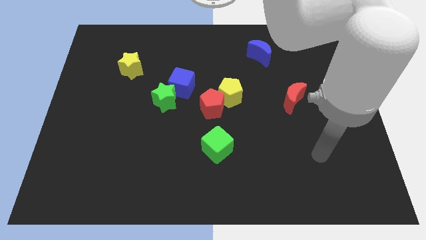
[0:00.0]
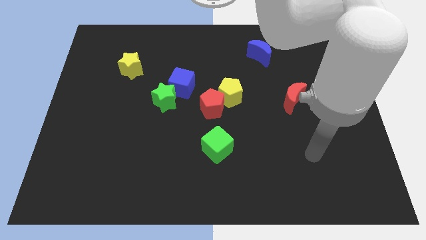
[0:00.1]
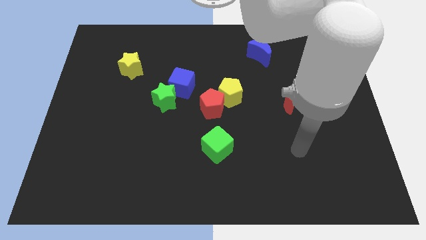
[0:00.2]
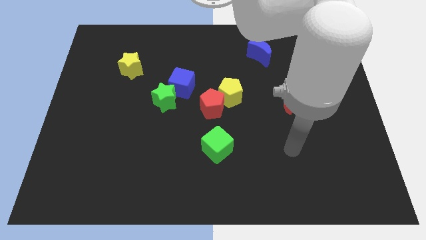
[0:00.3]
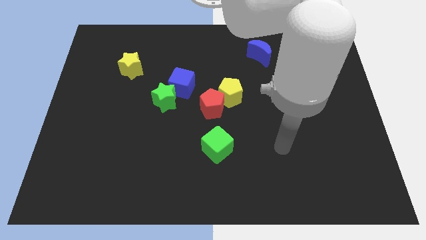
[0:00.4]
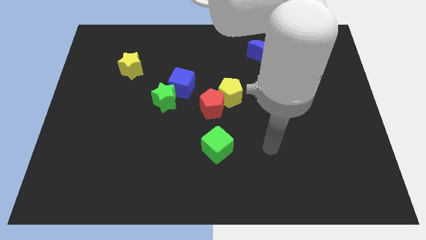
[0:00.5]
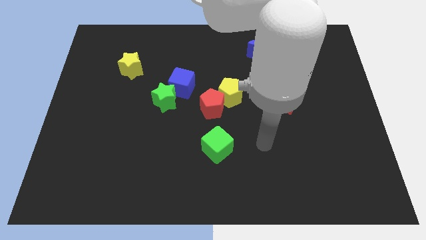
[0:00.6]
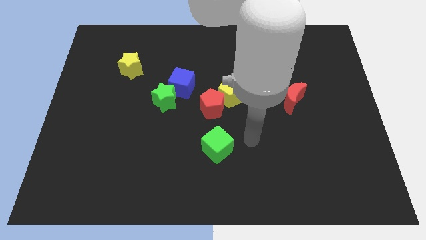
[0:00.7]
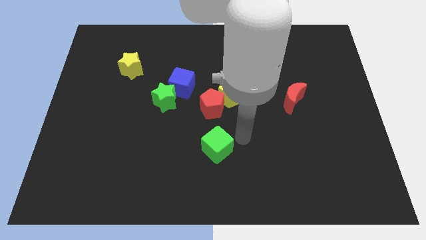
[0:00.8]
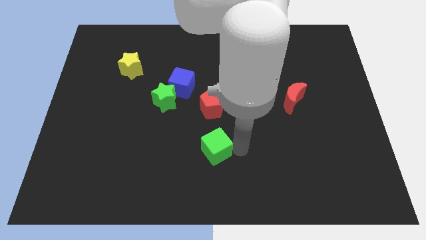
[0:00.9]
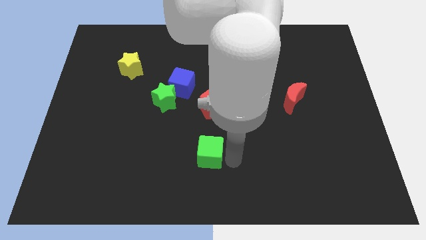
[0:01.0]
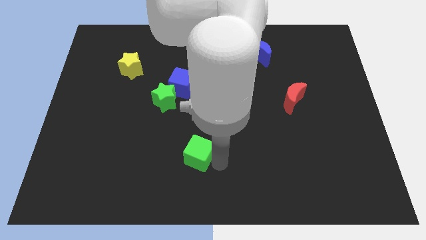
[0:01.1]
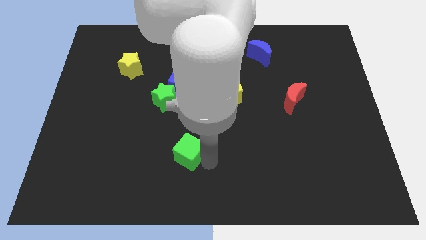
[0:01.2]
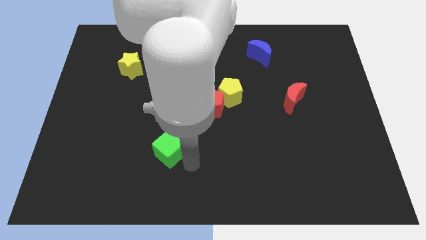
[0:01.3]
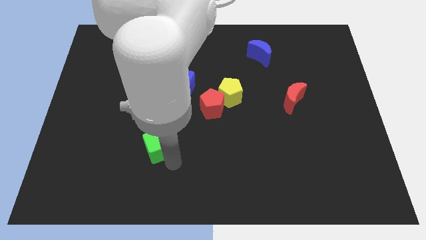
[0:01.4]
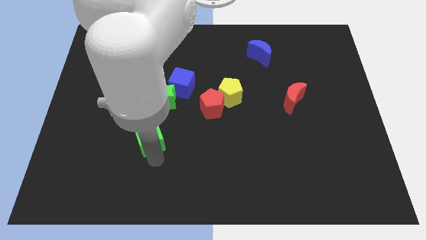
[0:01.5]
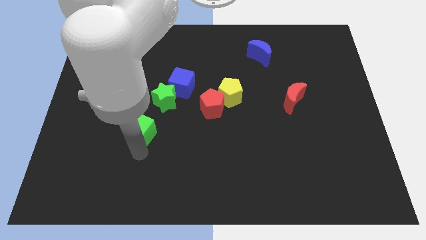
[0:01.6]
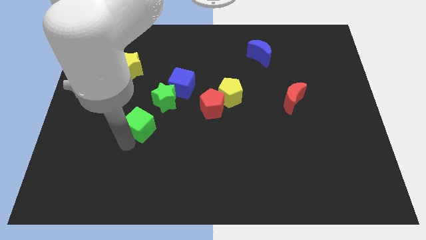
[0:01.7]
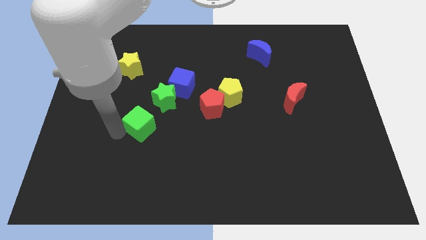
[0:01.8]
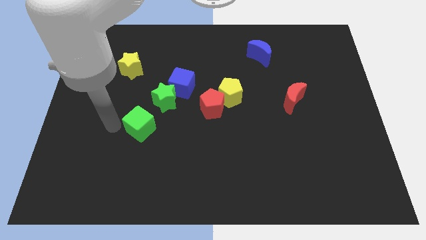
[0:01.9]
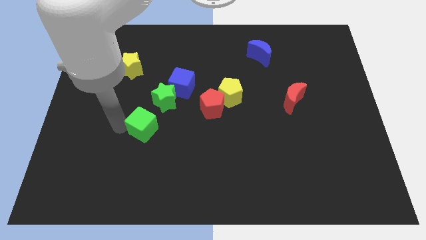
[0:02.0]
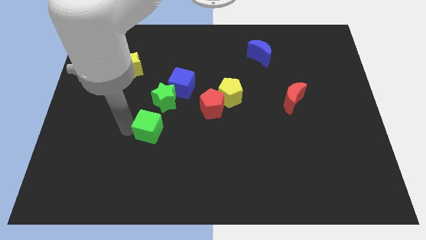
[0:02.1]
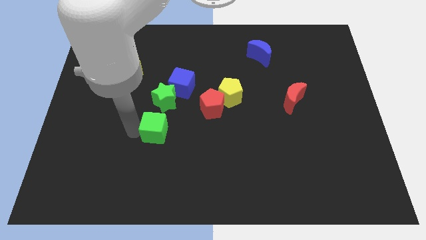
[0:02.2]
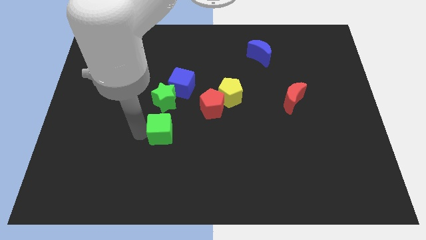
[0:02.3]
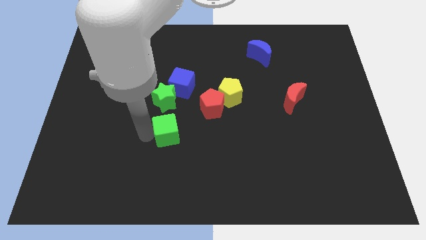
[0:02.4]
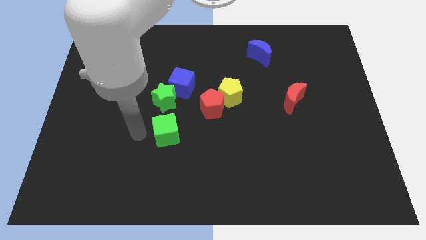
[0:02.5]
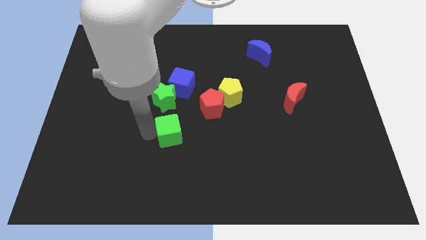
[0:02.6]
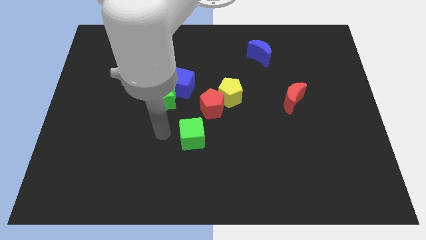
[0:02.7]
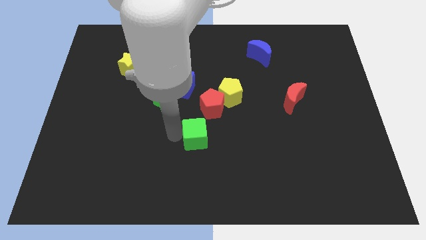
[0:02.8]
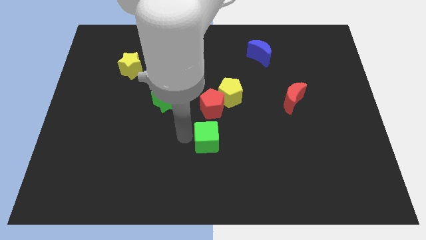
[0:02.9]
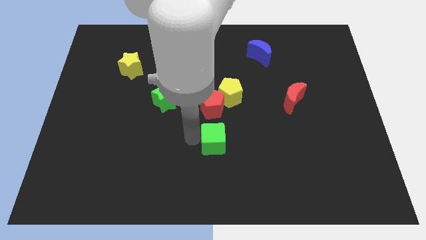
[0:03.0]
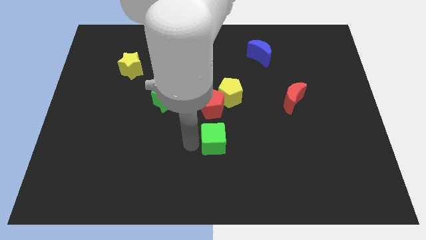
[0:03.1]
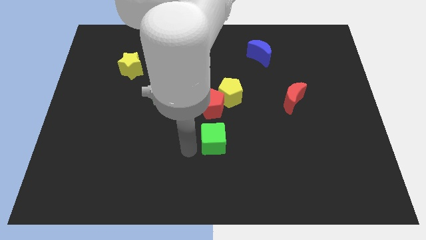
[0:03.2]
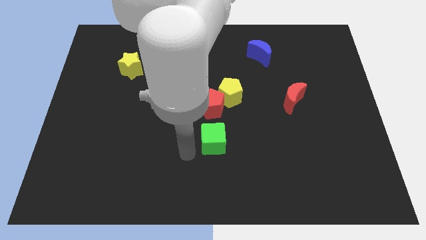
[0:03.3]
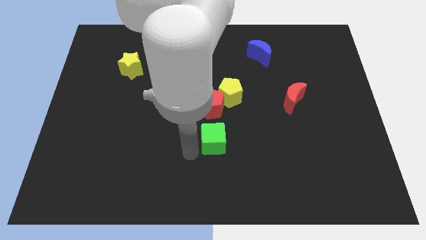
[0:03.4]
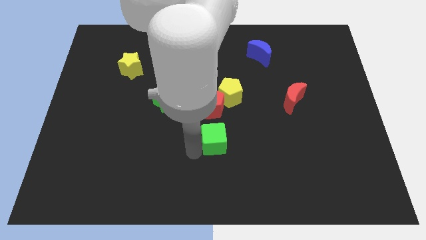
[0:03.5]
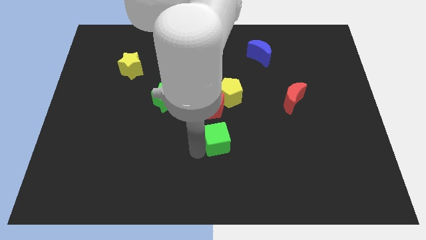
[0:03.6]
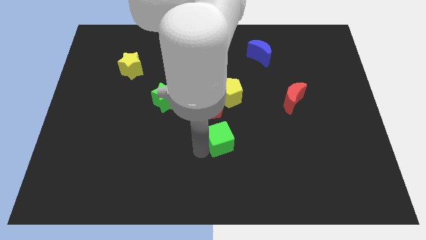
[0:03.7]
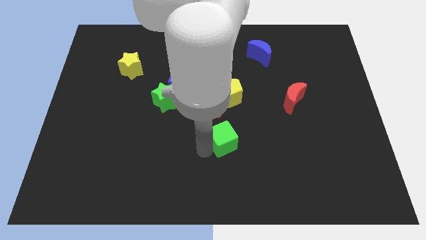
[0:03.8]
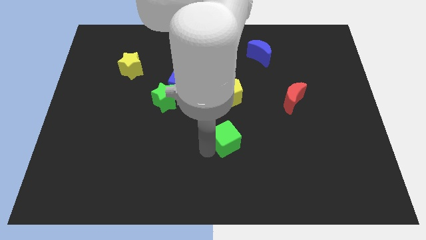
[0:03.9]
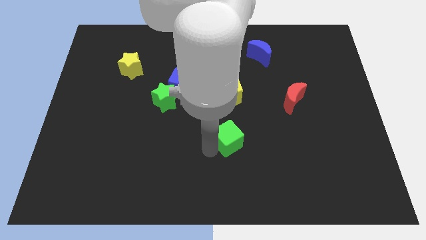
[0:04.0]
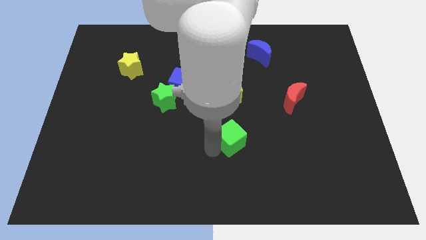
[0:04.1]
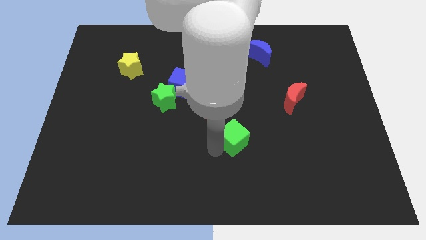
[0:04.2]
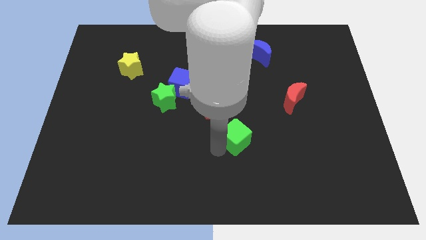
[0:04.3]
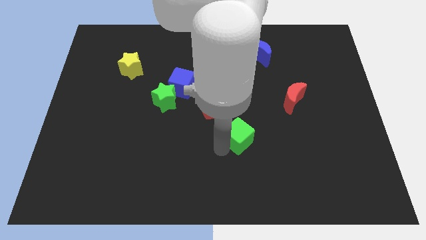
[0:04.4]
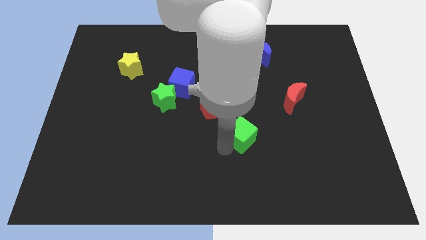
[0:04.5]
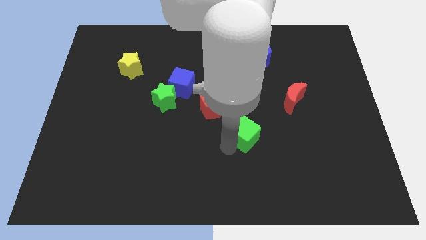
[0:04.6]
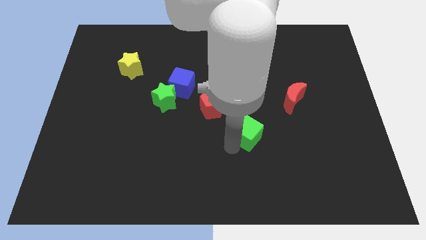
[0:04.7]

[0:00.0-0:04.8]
push the green cube somewhat up and then right

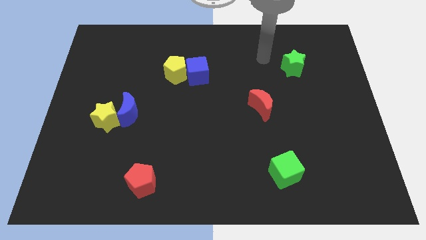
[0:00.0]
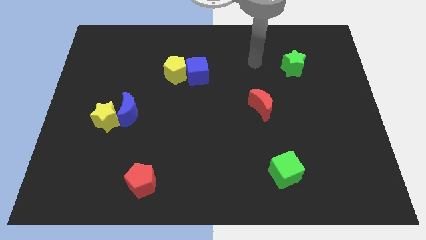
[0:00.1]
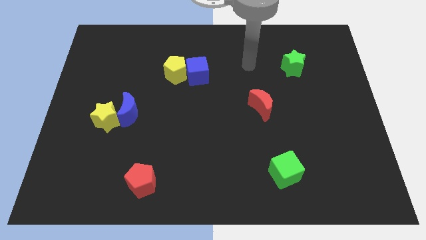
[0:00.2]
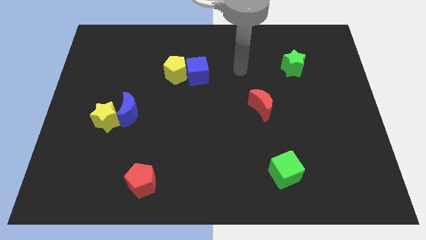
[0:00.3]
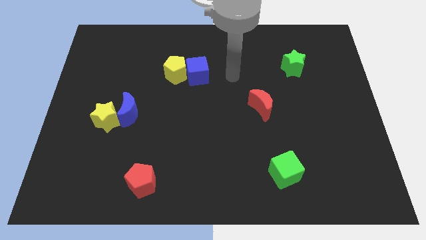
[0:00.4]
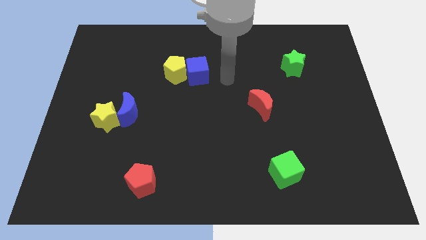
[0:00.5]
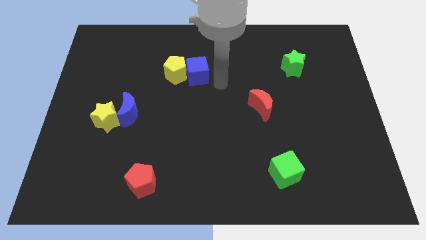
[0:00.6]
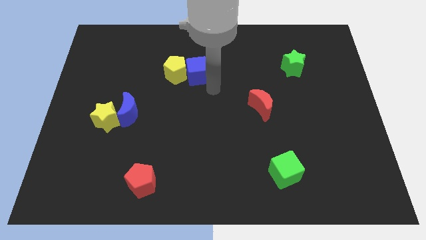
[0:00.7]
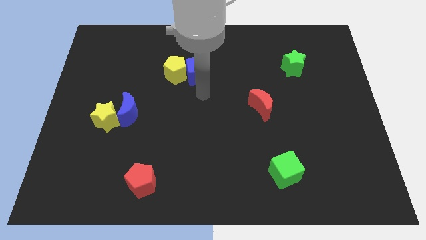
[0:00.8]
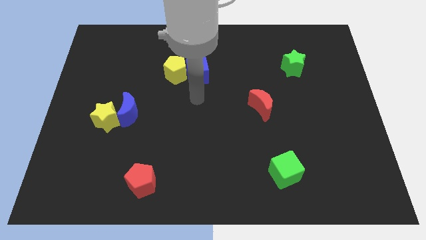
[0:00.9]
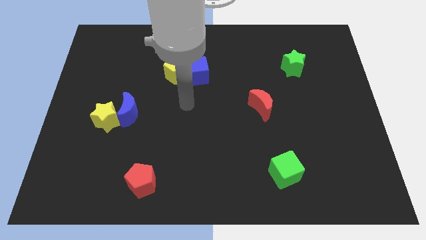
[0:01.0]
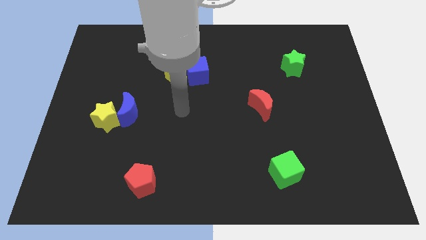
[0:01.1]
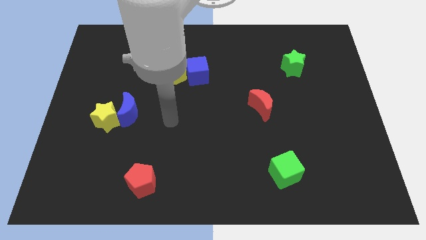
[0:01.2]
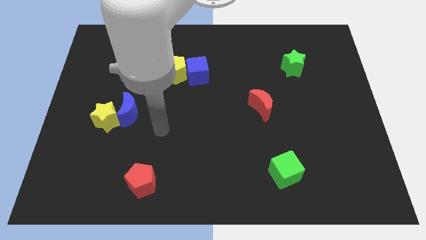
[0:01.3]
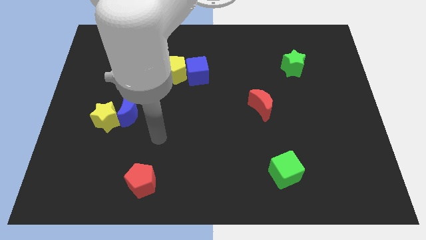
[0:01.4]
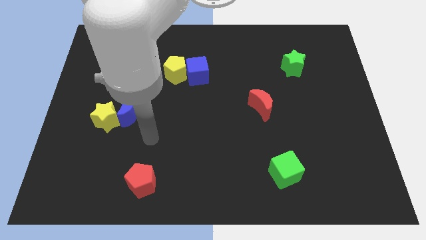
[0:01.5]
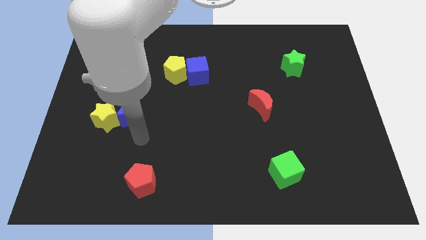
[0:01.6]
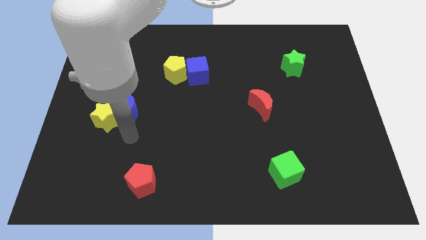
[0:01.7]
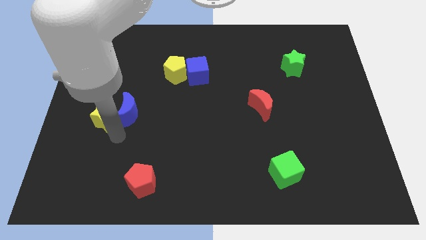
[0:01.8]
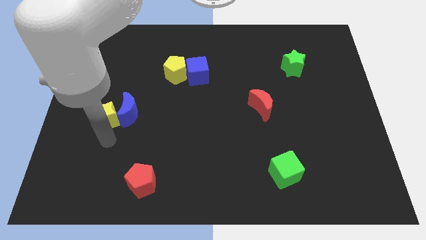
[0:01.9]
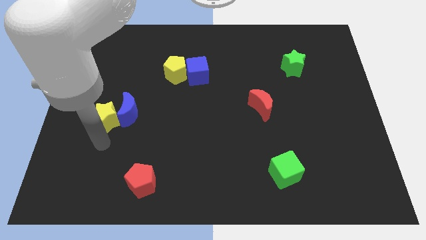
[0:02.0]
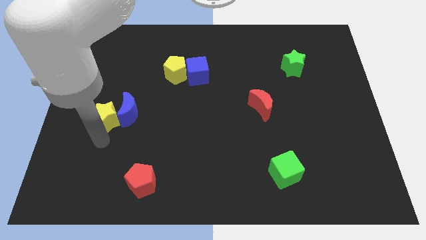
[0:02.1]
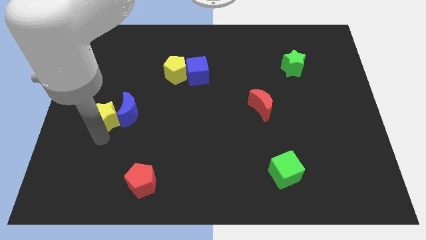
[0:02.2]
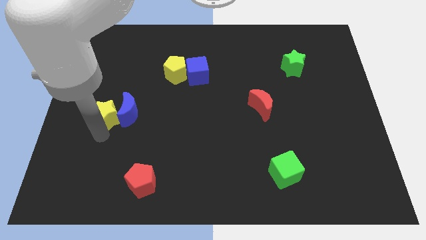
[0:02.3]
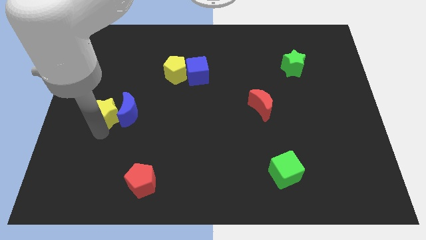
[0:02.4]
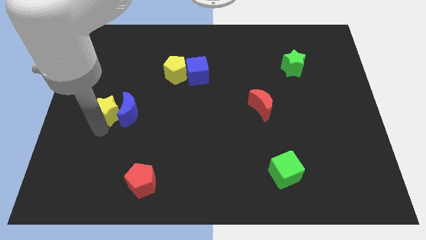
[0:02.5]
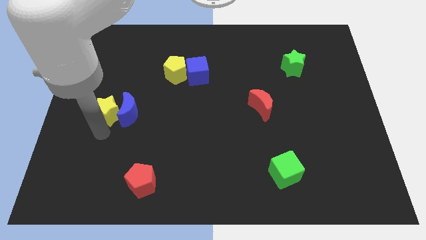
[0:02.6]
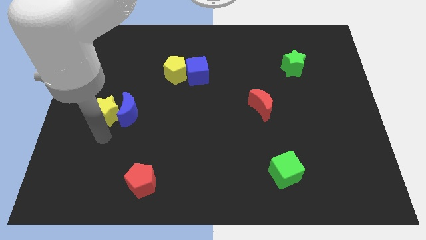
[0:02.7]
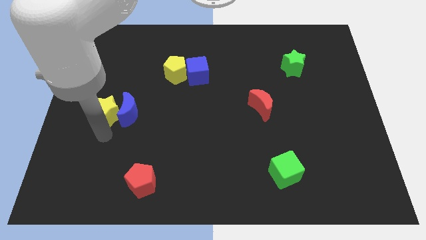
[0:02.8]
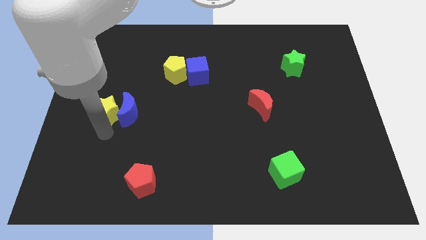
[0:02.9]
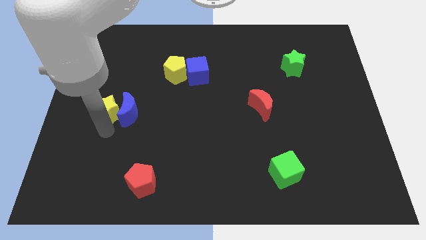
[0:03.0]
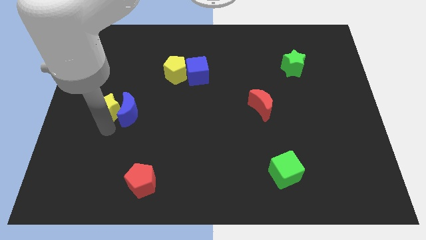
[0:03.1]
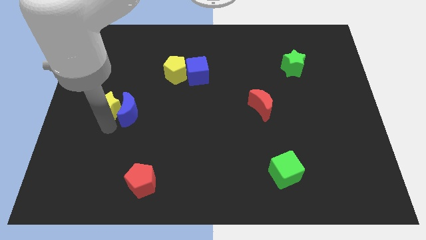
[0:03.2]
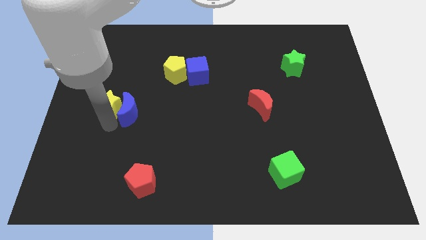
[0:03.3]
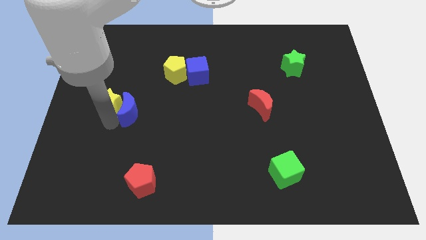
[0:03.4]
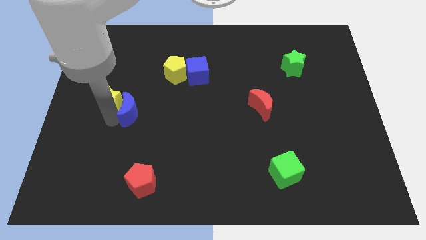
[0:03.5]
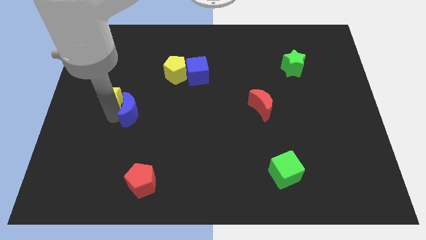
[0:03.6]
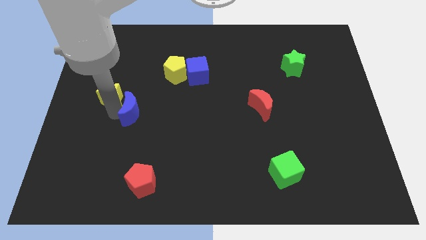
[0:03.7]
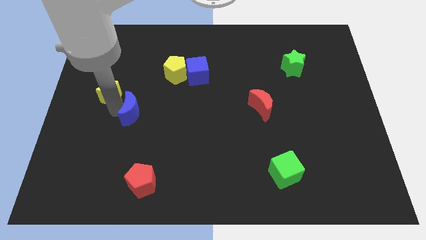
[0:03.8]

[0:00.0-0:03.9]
slightly slide the yellow star up
